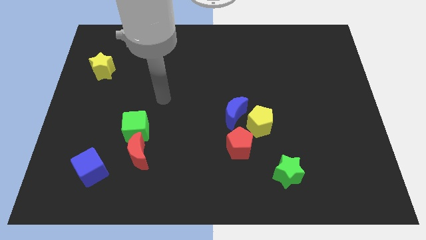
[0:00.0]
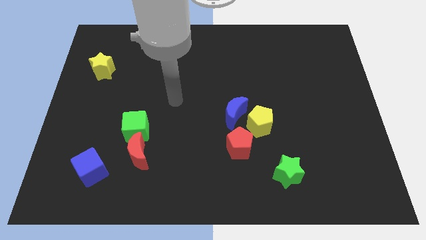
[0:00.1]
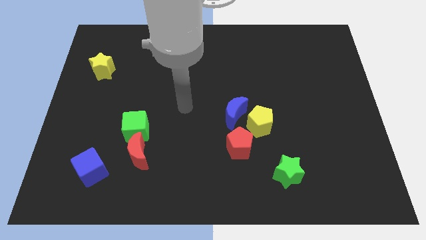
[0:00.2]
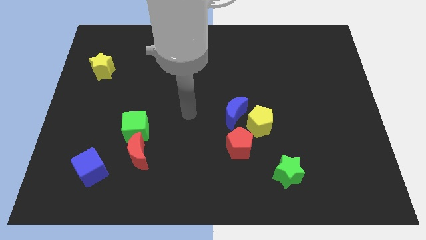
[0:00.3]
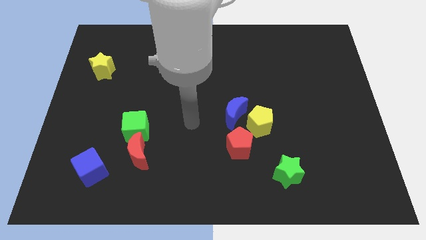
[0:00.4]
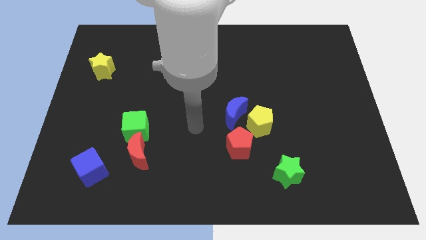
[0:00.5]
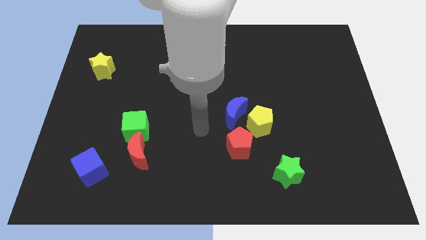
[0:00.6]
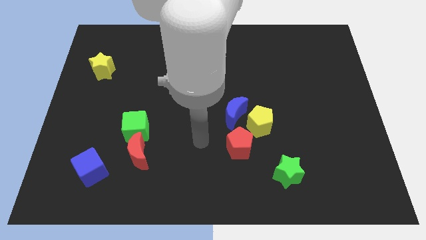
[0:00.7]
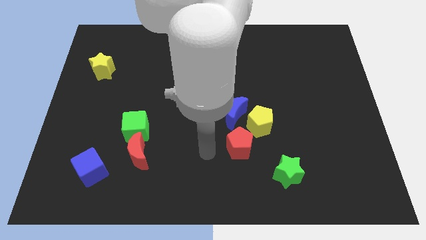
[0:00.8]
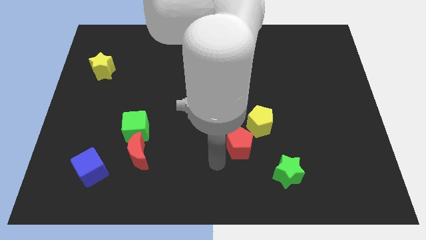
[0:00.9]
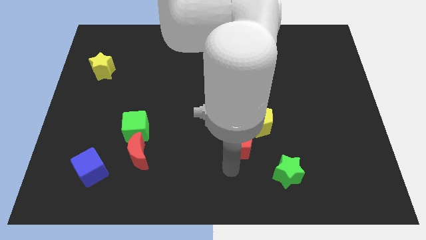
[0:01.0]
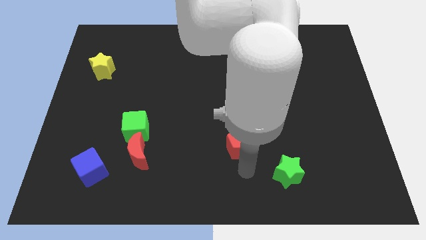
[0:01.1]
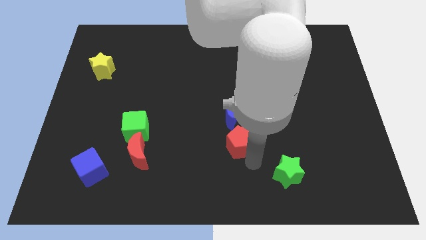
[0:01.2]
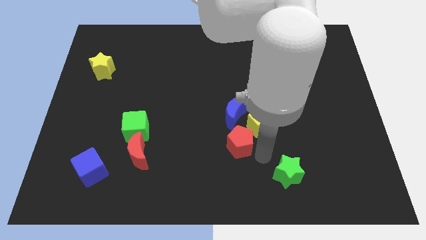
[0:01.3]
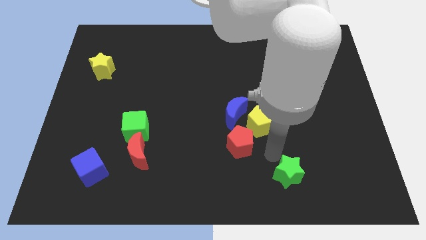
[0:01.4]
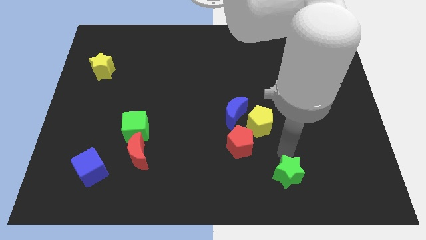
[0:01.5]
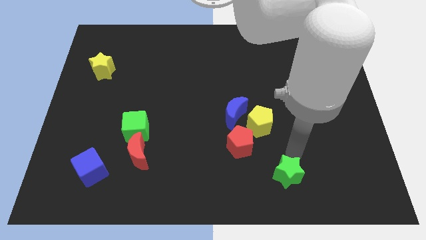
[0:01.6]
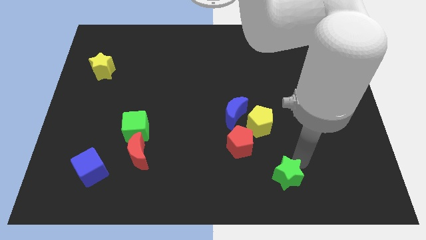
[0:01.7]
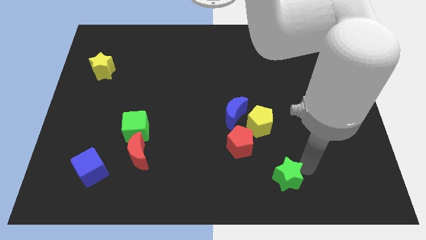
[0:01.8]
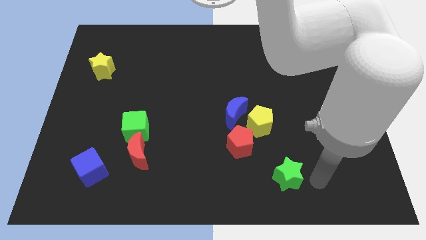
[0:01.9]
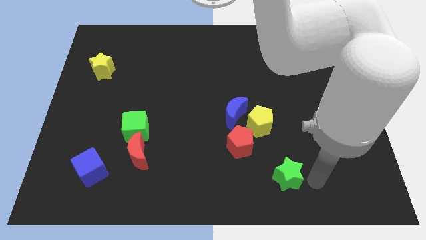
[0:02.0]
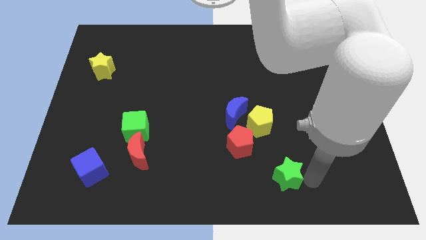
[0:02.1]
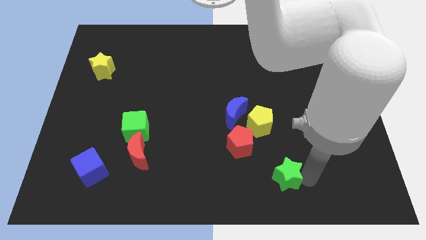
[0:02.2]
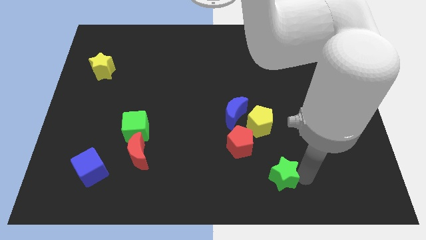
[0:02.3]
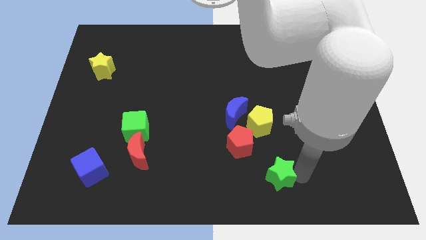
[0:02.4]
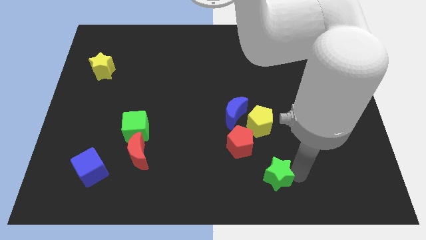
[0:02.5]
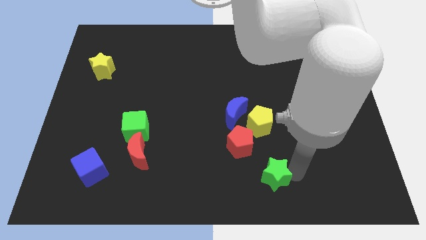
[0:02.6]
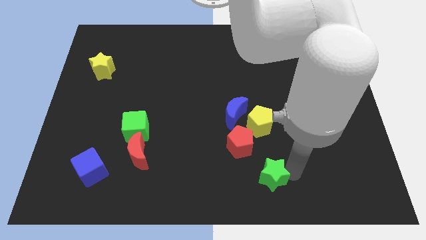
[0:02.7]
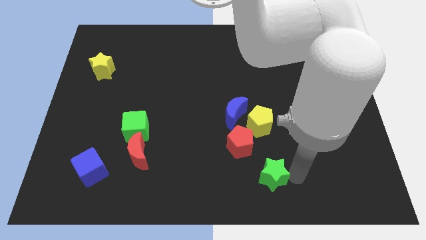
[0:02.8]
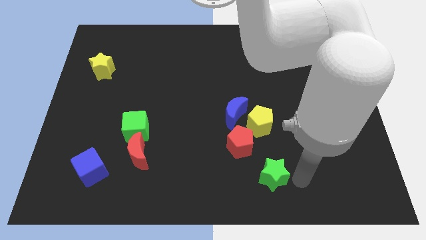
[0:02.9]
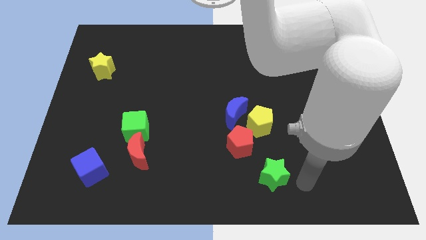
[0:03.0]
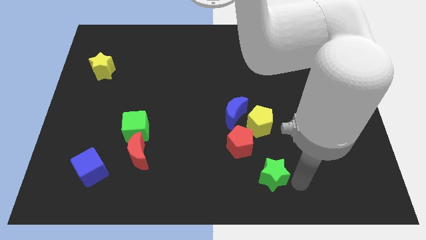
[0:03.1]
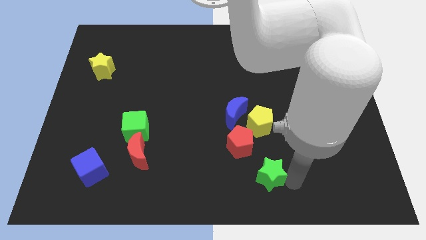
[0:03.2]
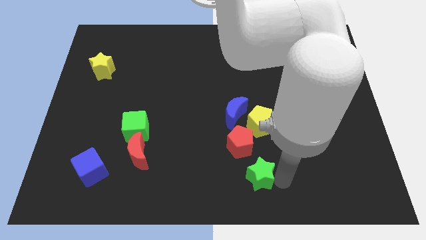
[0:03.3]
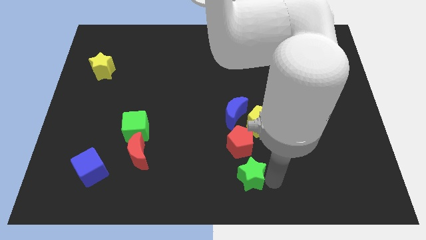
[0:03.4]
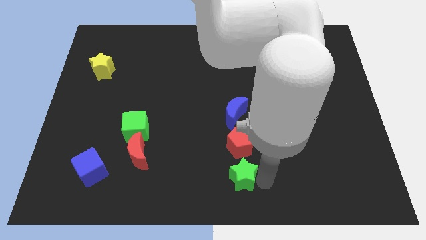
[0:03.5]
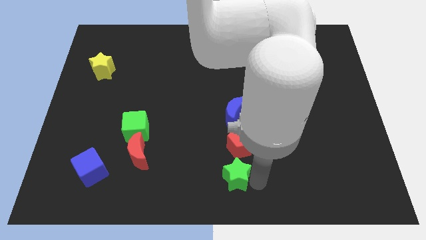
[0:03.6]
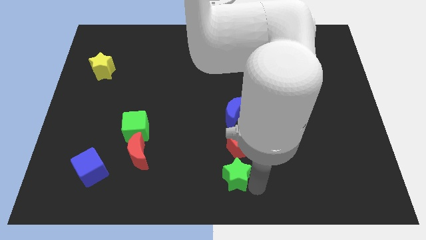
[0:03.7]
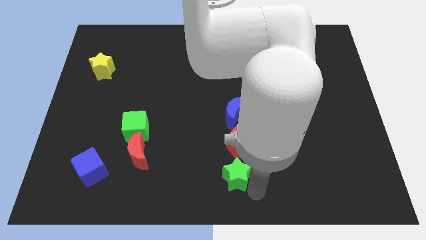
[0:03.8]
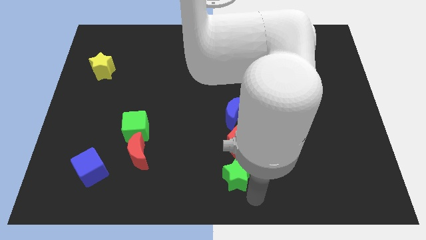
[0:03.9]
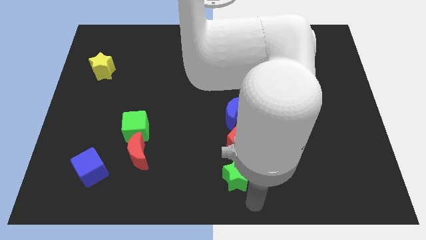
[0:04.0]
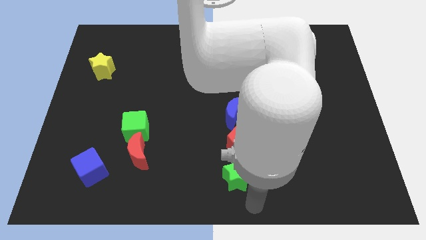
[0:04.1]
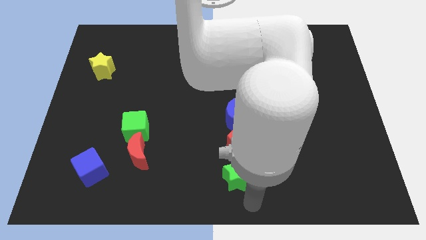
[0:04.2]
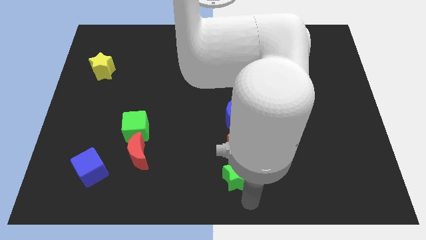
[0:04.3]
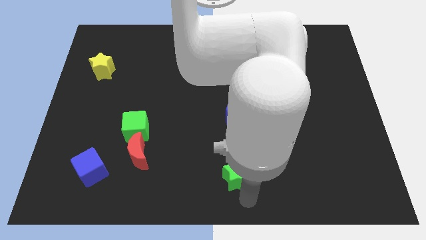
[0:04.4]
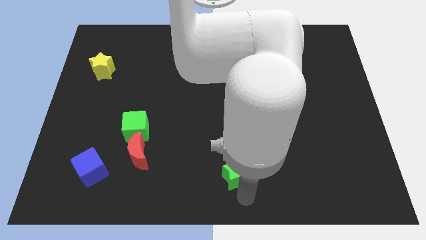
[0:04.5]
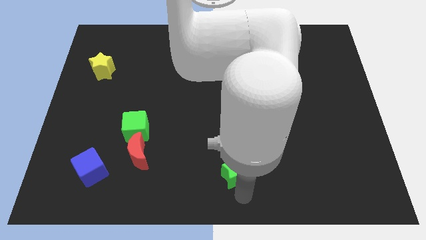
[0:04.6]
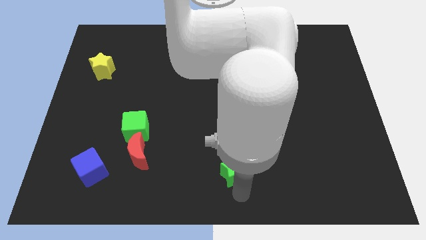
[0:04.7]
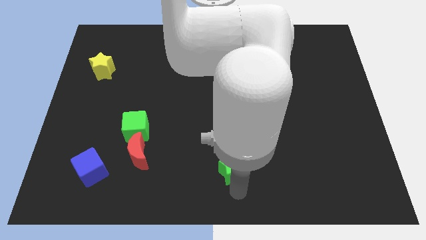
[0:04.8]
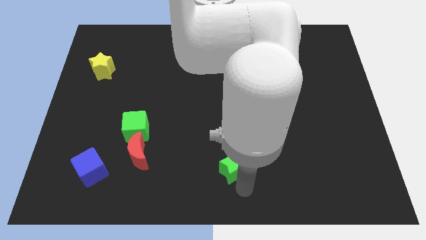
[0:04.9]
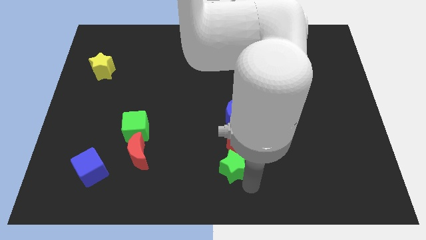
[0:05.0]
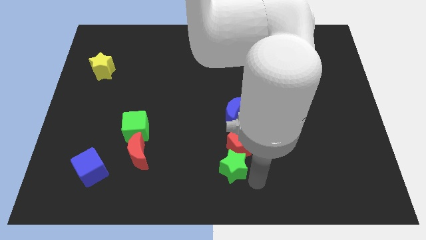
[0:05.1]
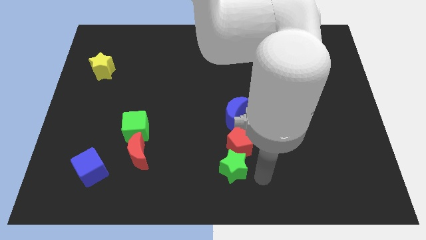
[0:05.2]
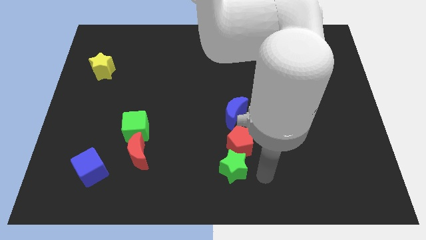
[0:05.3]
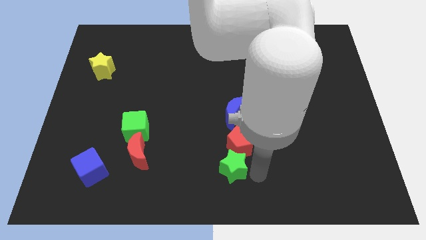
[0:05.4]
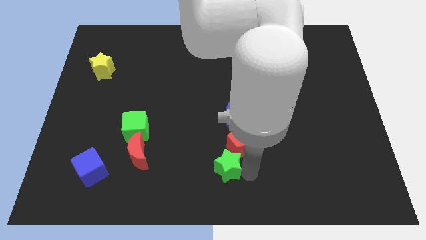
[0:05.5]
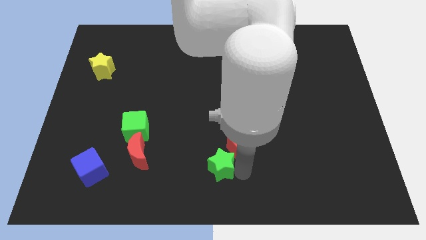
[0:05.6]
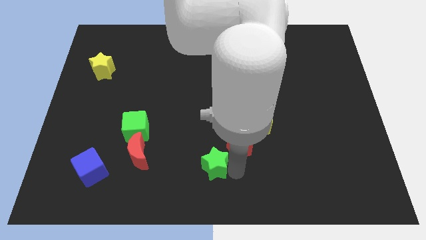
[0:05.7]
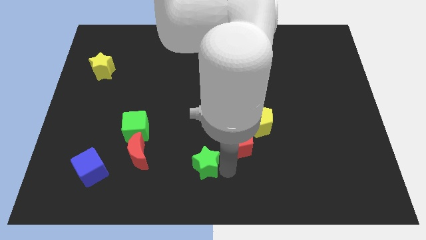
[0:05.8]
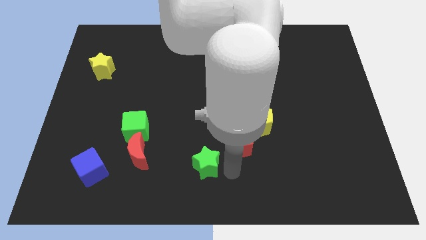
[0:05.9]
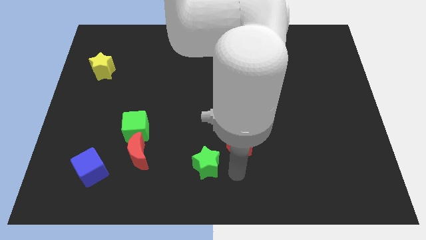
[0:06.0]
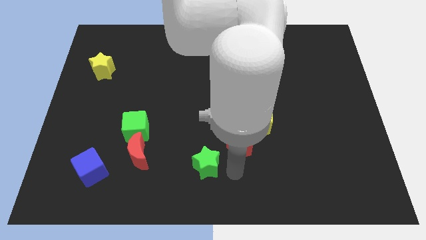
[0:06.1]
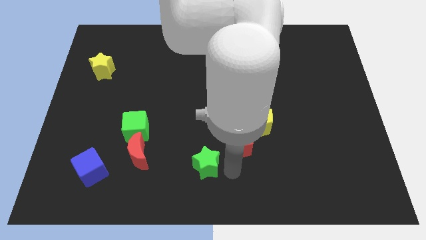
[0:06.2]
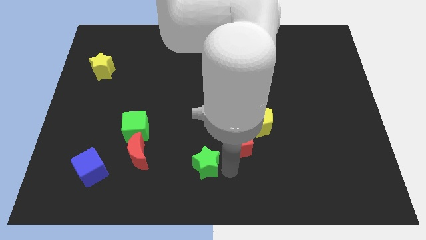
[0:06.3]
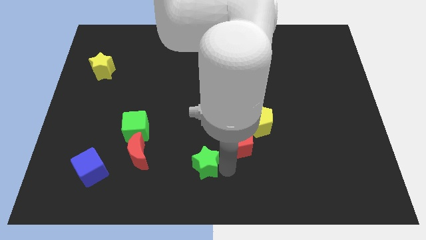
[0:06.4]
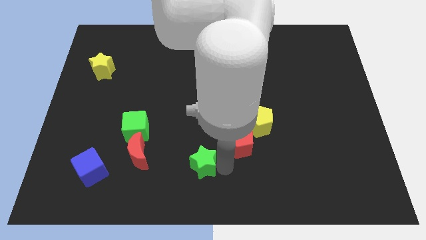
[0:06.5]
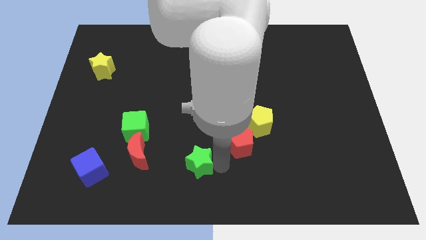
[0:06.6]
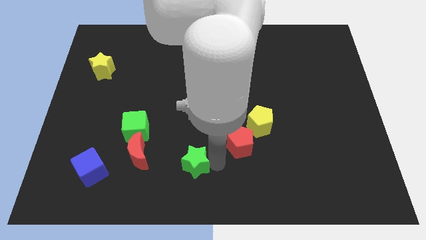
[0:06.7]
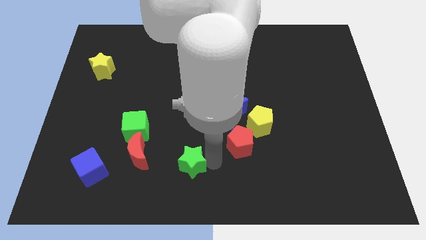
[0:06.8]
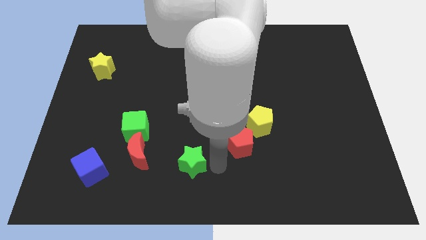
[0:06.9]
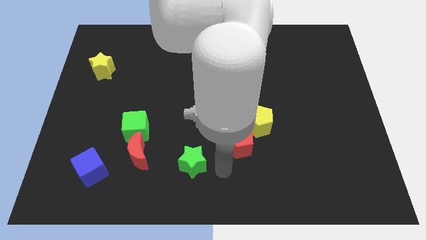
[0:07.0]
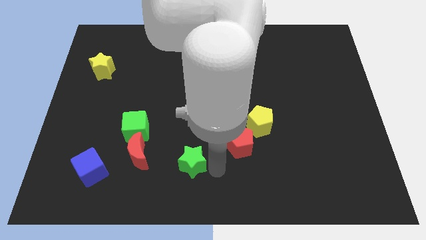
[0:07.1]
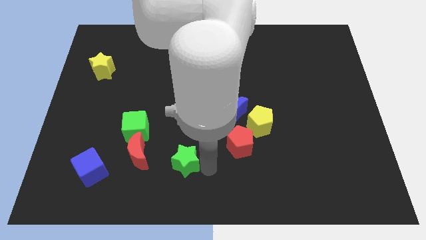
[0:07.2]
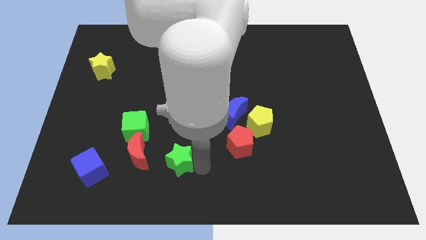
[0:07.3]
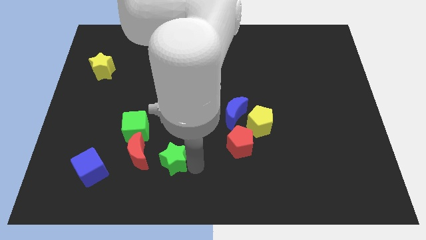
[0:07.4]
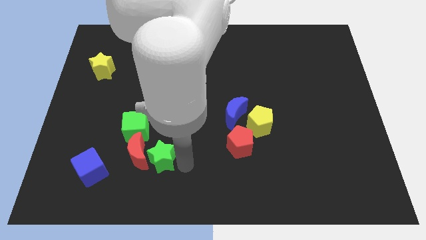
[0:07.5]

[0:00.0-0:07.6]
slide the green star towards the red moon
